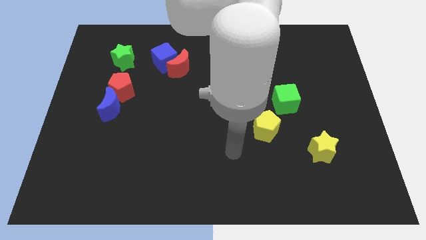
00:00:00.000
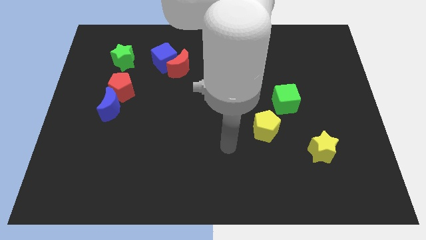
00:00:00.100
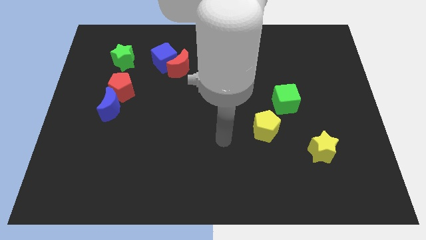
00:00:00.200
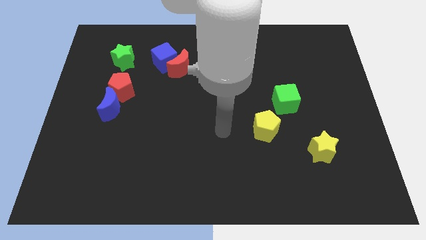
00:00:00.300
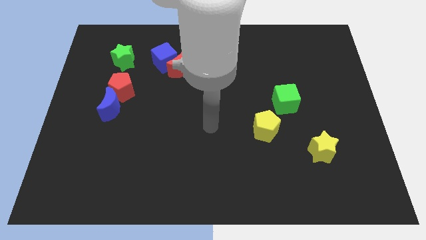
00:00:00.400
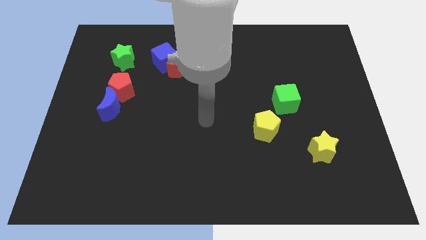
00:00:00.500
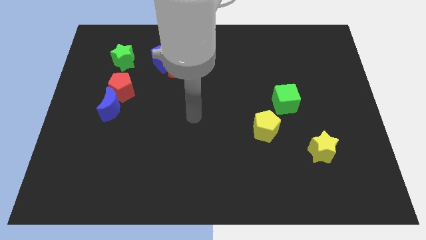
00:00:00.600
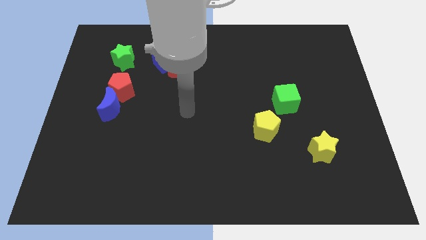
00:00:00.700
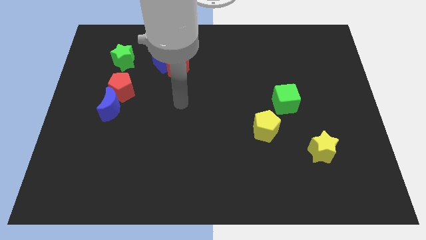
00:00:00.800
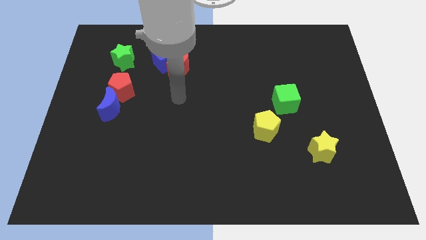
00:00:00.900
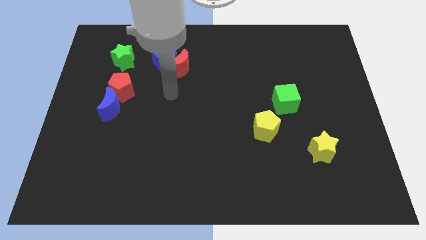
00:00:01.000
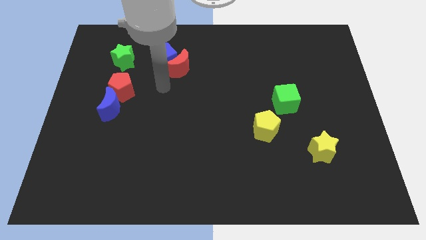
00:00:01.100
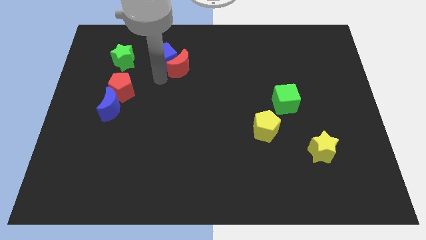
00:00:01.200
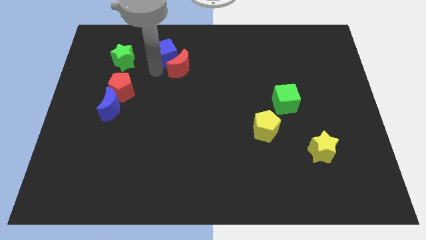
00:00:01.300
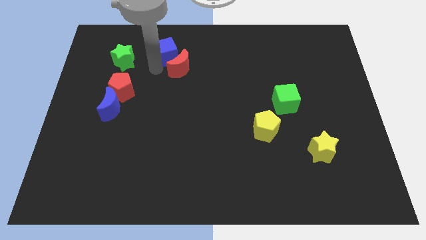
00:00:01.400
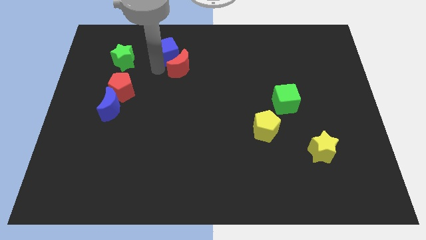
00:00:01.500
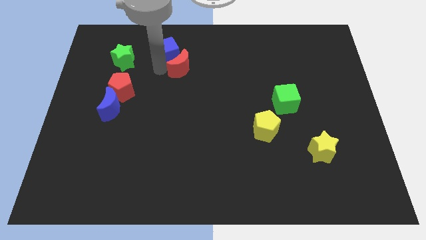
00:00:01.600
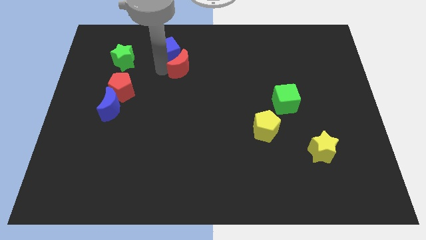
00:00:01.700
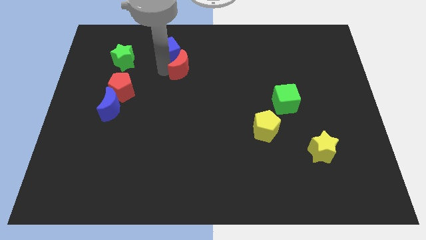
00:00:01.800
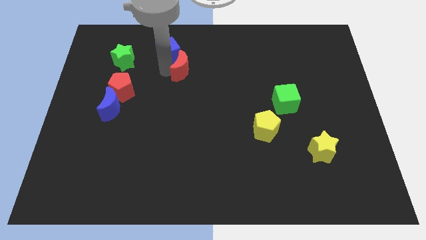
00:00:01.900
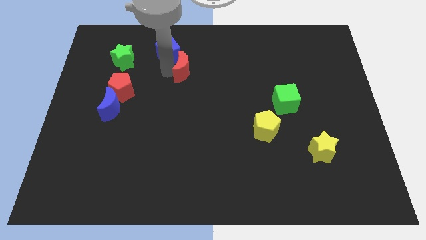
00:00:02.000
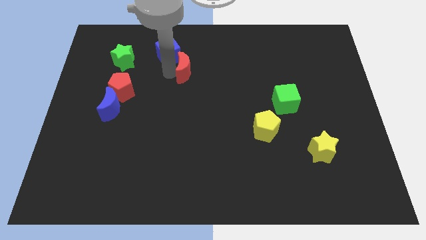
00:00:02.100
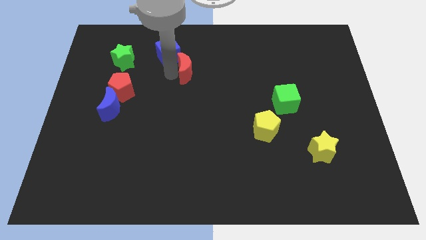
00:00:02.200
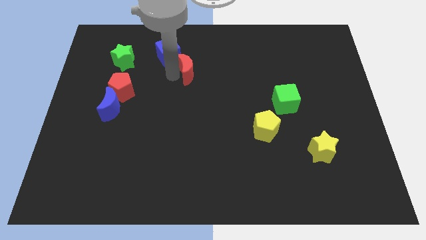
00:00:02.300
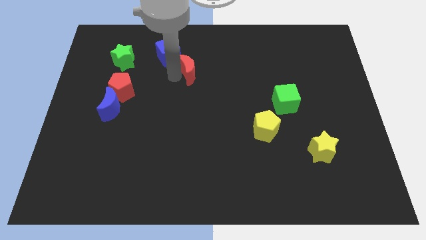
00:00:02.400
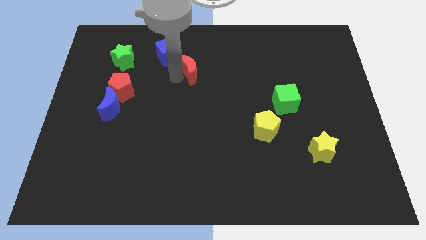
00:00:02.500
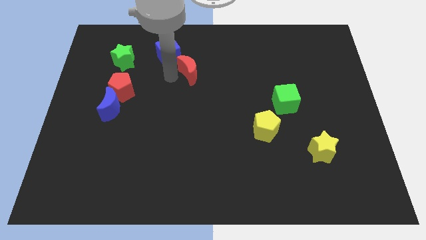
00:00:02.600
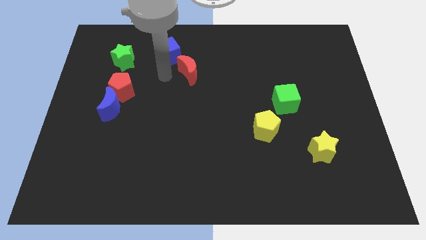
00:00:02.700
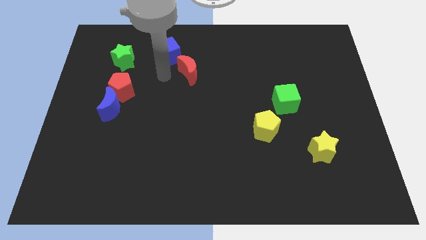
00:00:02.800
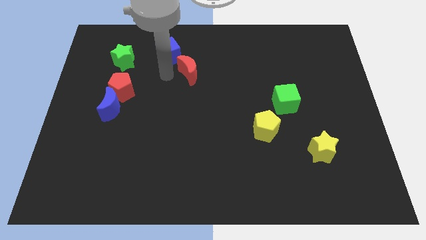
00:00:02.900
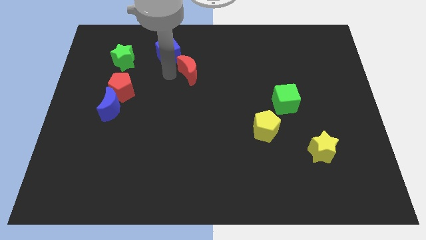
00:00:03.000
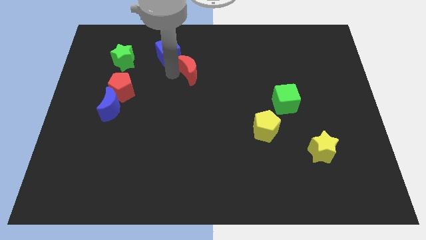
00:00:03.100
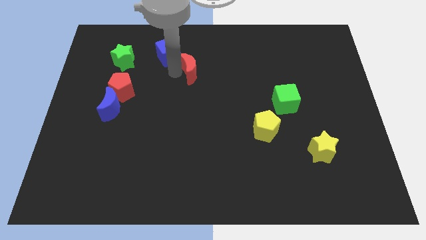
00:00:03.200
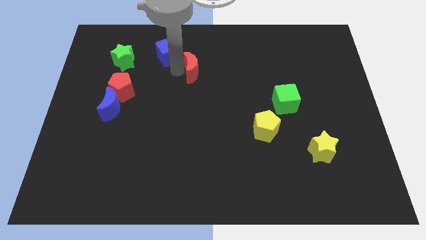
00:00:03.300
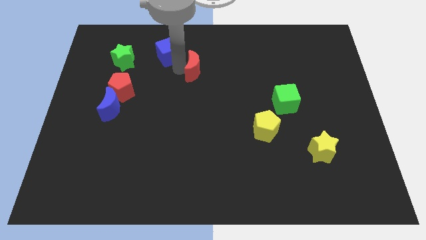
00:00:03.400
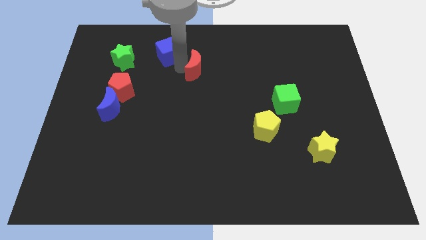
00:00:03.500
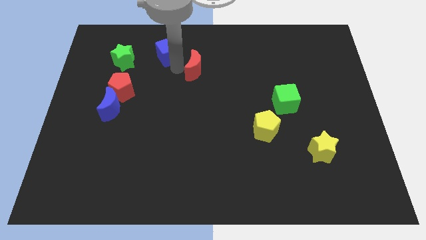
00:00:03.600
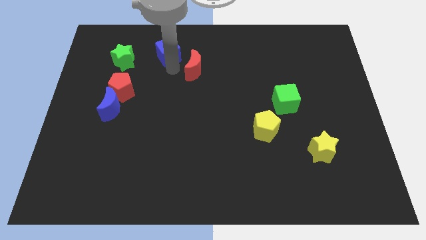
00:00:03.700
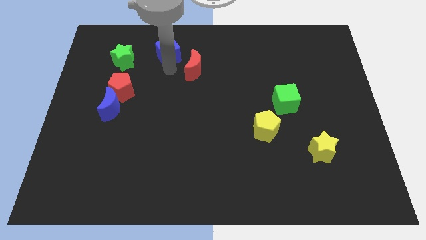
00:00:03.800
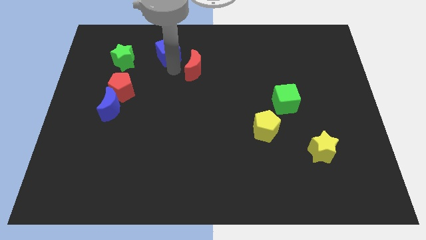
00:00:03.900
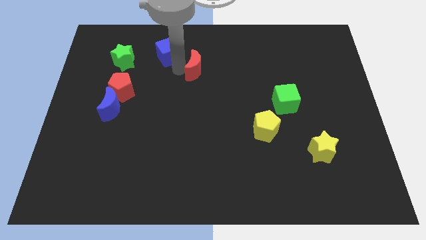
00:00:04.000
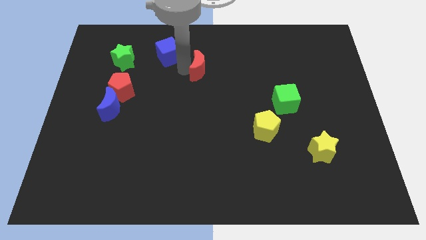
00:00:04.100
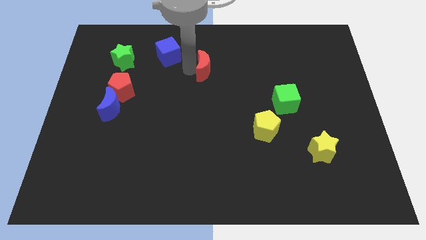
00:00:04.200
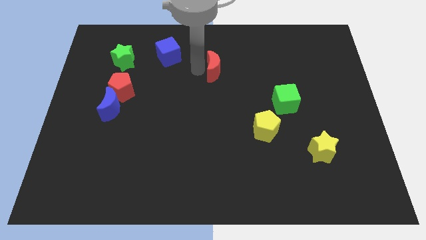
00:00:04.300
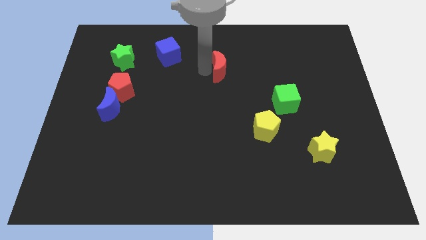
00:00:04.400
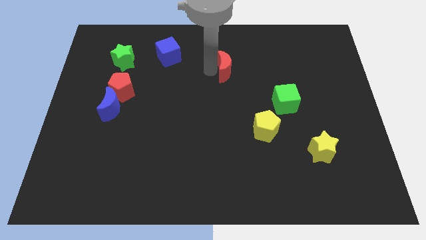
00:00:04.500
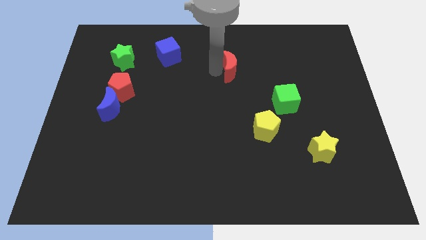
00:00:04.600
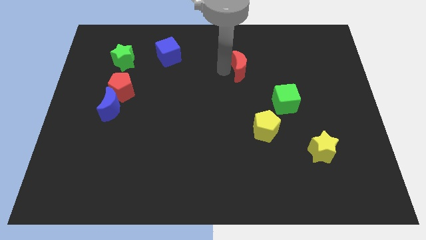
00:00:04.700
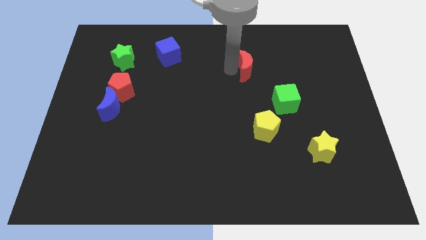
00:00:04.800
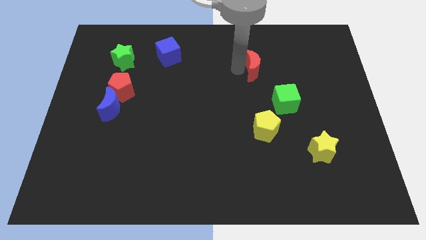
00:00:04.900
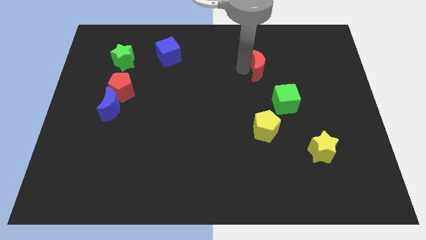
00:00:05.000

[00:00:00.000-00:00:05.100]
push the red moon to the right

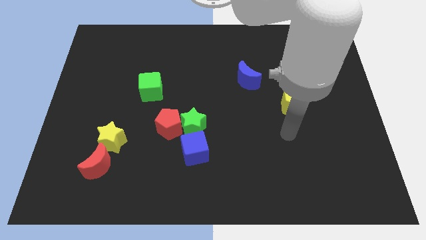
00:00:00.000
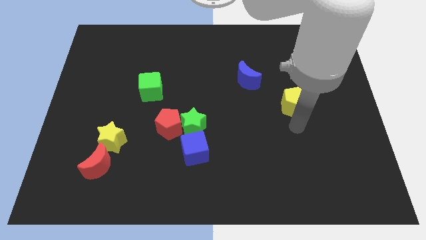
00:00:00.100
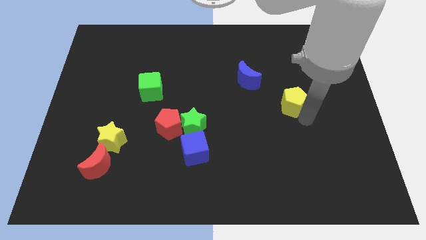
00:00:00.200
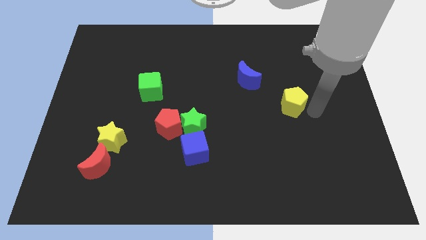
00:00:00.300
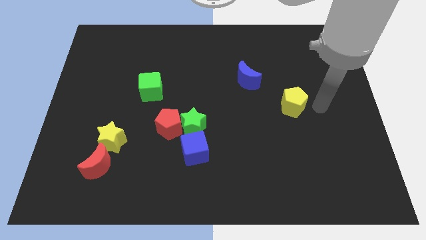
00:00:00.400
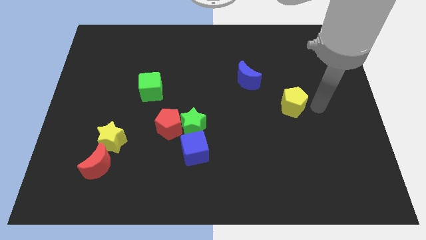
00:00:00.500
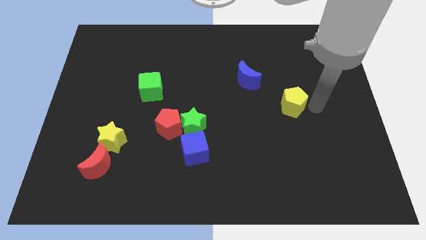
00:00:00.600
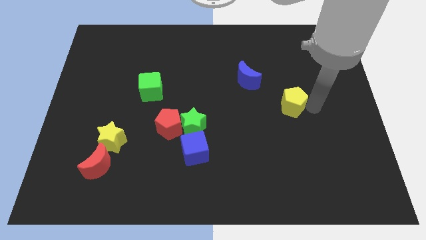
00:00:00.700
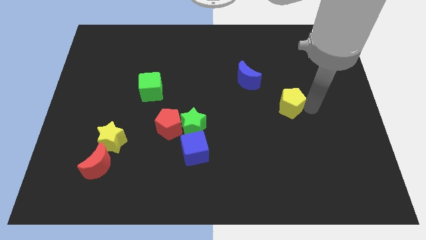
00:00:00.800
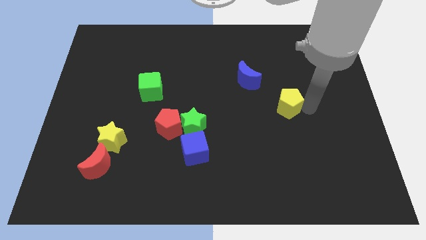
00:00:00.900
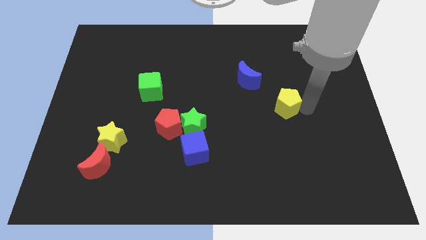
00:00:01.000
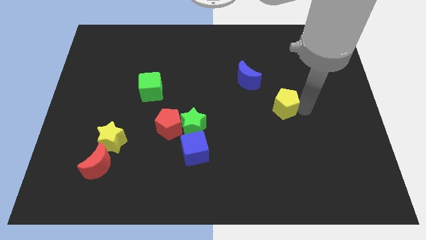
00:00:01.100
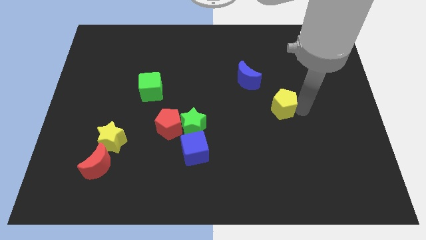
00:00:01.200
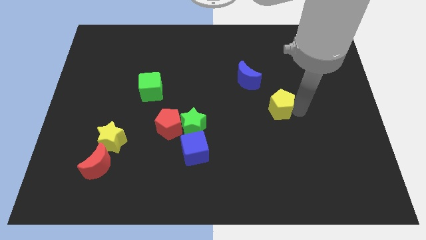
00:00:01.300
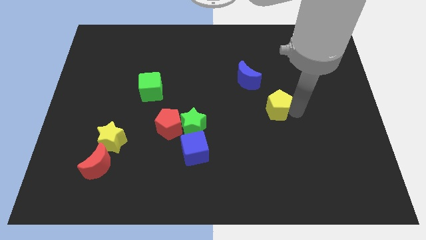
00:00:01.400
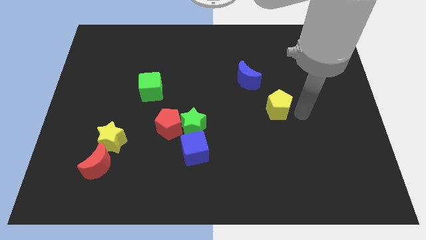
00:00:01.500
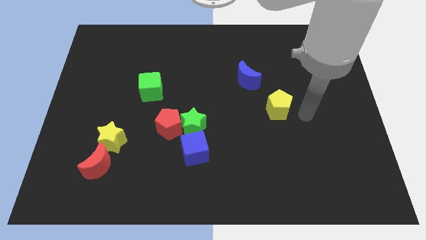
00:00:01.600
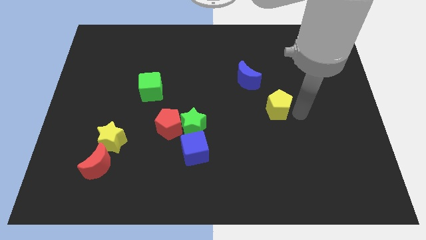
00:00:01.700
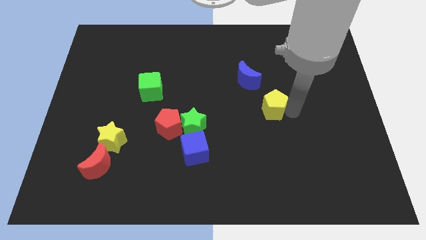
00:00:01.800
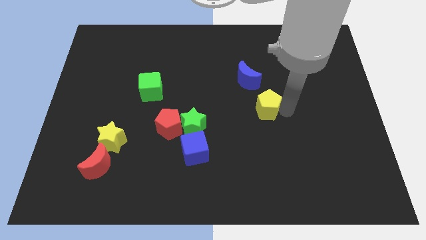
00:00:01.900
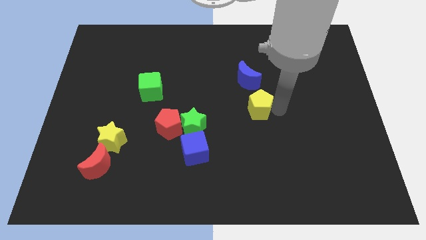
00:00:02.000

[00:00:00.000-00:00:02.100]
move the yellow pentagon slightly to the left

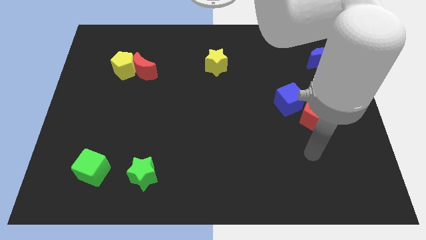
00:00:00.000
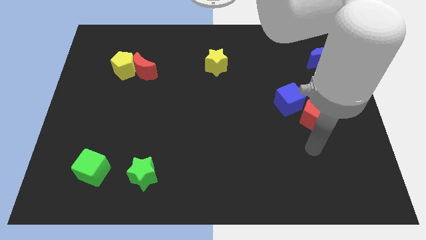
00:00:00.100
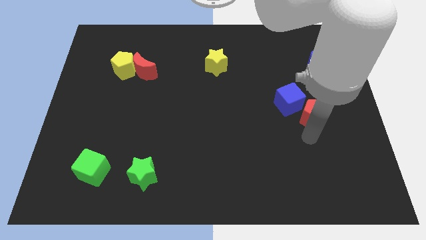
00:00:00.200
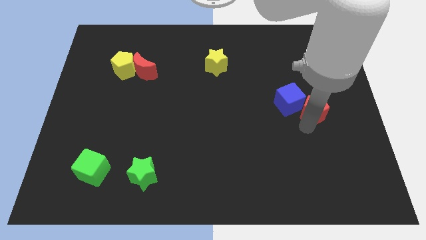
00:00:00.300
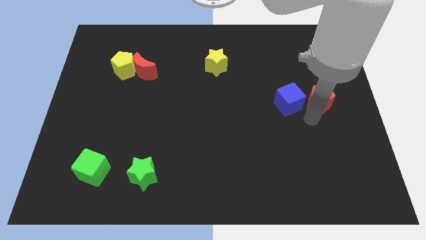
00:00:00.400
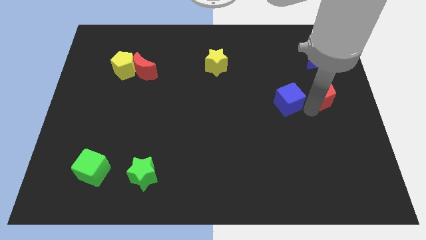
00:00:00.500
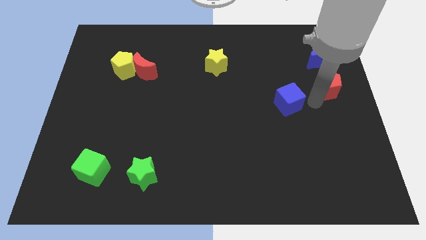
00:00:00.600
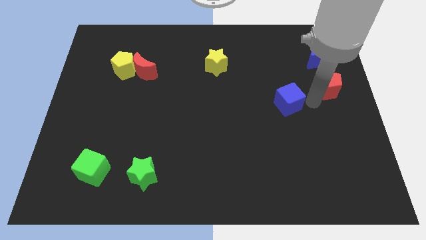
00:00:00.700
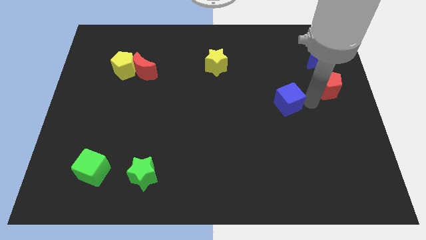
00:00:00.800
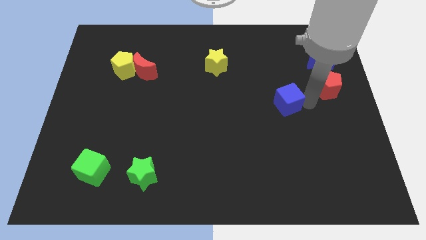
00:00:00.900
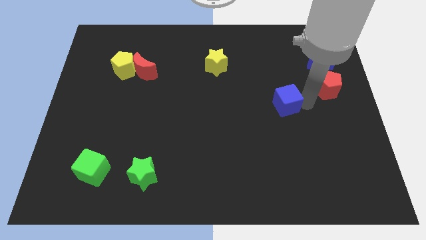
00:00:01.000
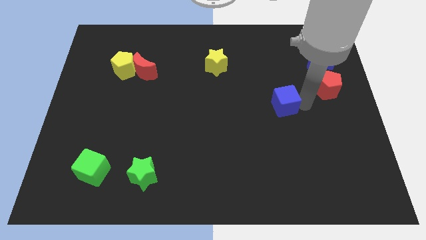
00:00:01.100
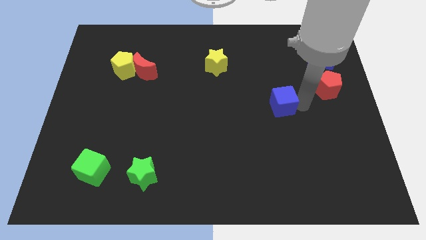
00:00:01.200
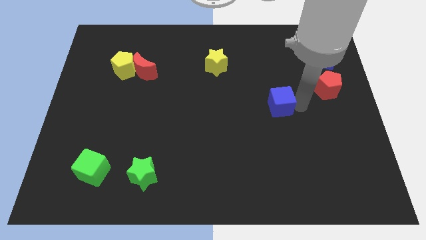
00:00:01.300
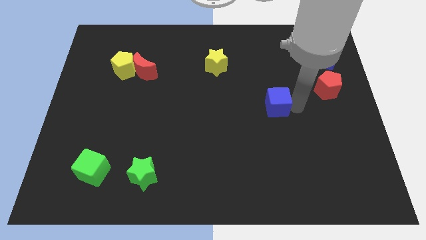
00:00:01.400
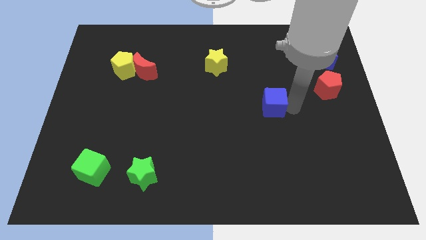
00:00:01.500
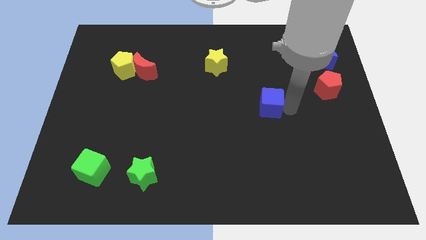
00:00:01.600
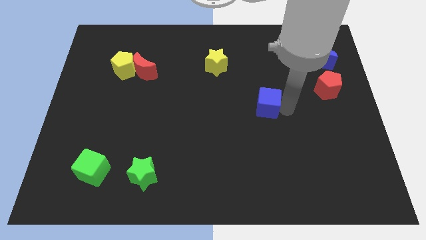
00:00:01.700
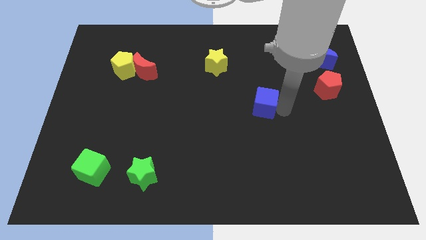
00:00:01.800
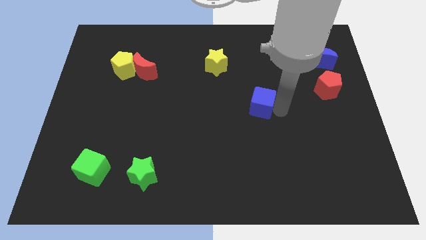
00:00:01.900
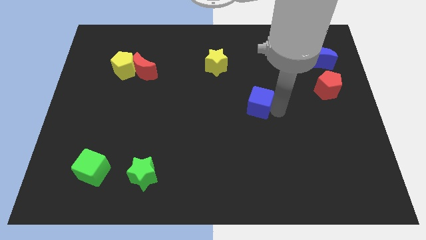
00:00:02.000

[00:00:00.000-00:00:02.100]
push the blue cube slightly left
